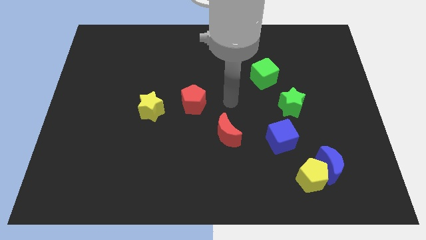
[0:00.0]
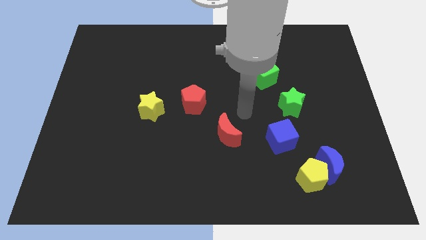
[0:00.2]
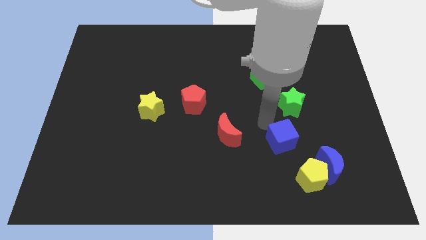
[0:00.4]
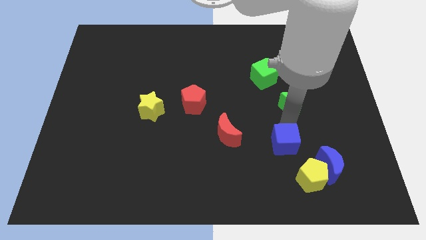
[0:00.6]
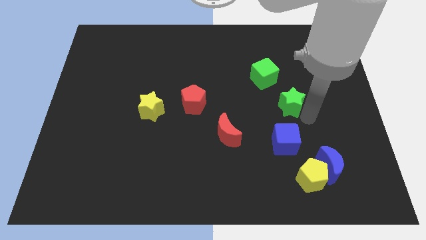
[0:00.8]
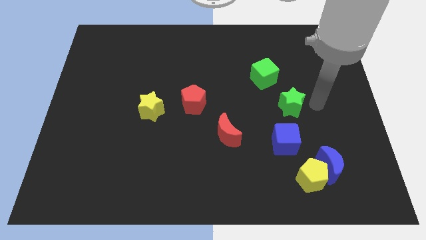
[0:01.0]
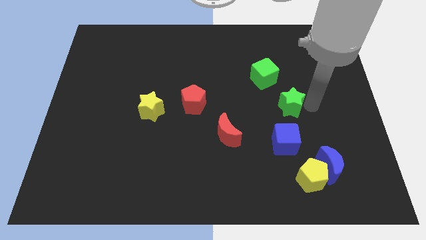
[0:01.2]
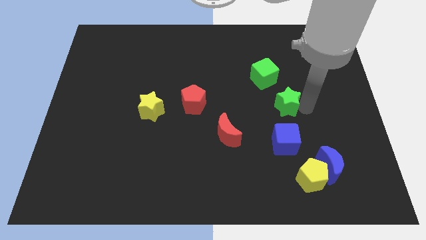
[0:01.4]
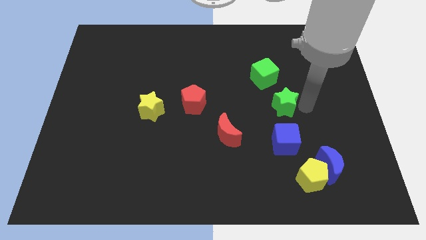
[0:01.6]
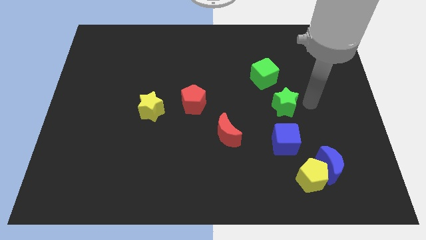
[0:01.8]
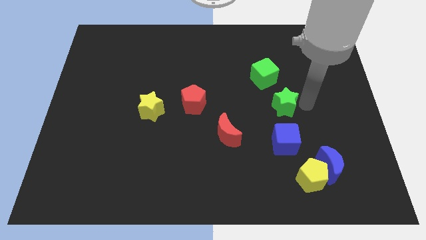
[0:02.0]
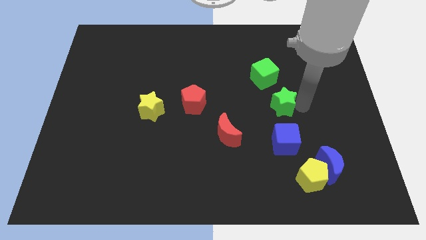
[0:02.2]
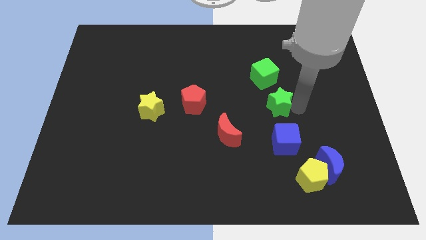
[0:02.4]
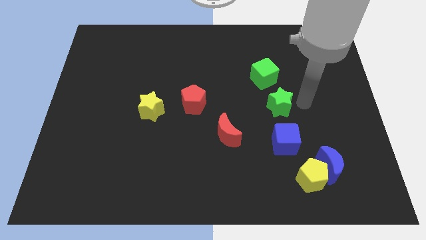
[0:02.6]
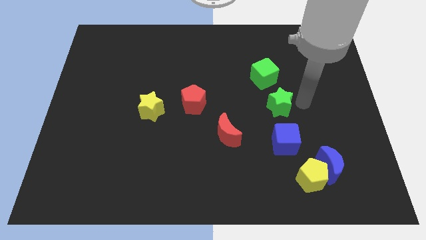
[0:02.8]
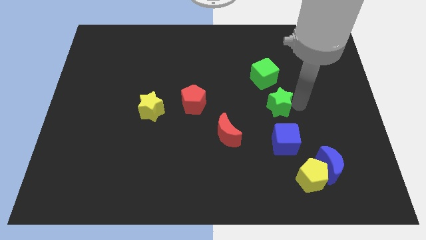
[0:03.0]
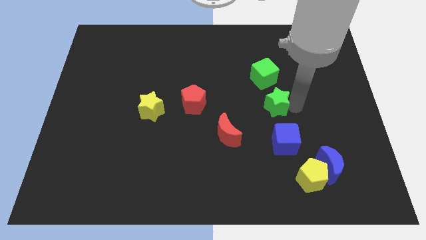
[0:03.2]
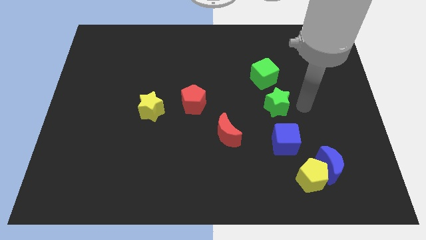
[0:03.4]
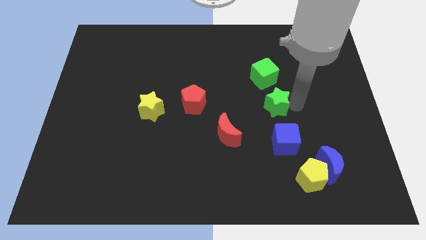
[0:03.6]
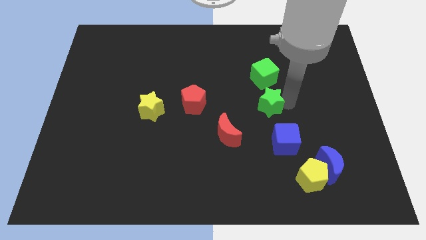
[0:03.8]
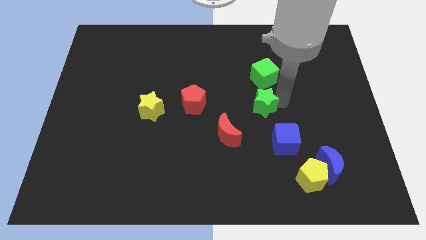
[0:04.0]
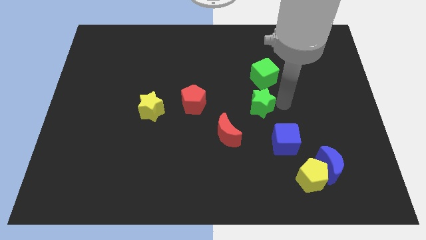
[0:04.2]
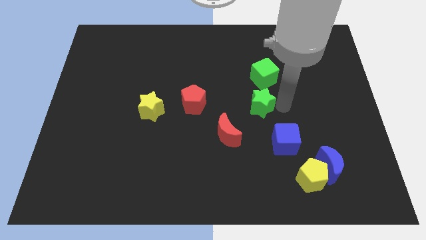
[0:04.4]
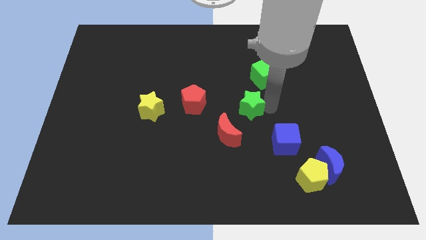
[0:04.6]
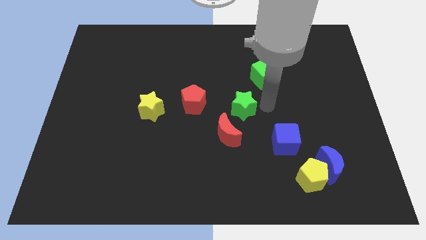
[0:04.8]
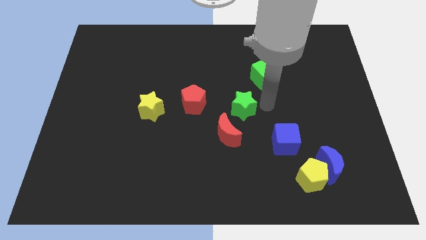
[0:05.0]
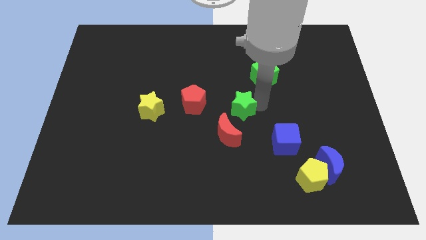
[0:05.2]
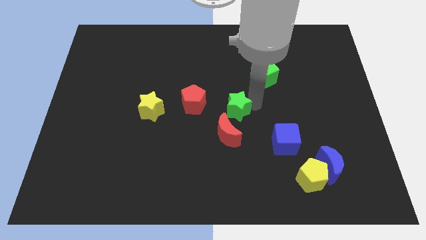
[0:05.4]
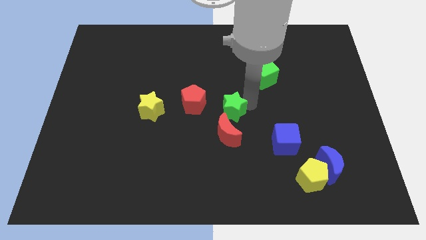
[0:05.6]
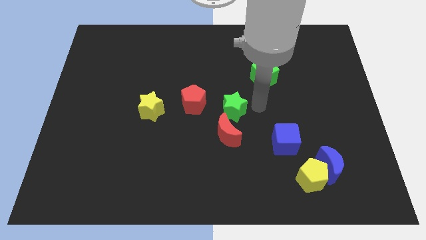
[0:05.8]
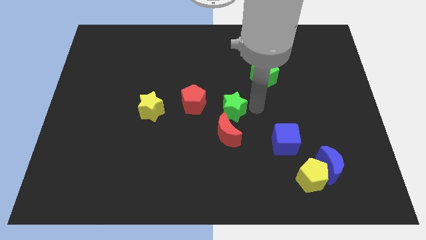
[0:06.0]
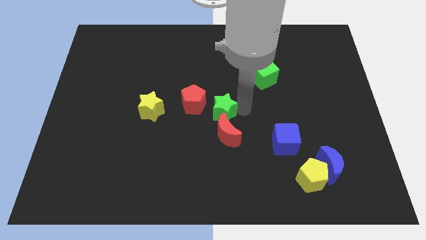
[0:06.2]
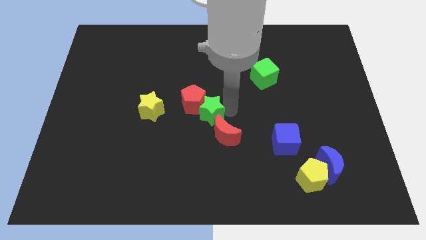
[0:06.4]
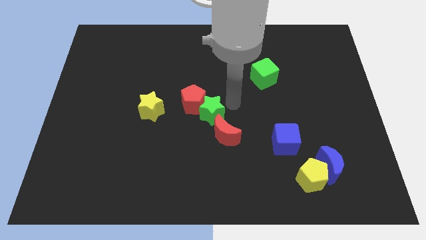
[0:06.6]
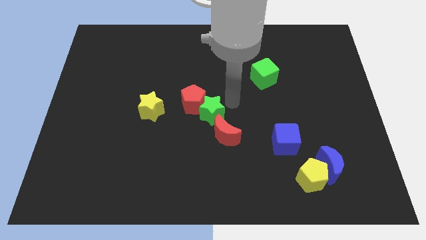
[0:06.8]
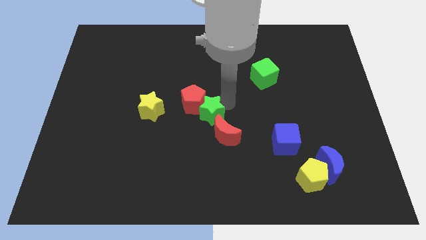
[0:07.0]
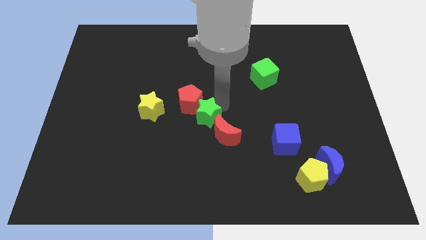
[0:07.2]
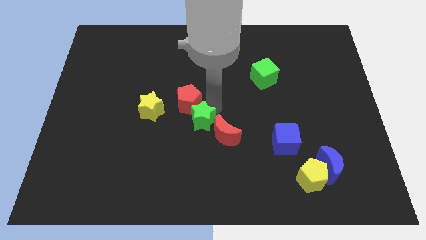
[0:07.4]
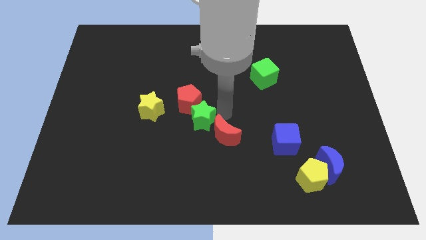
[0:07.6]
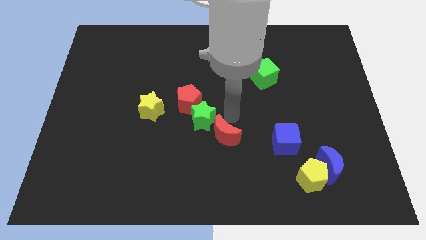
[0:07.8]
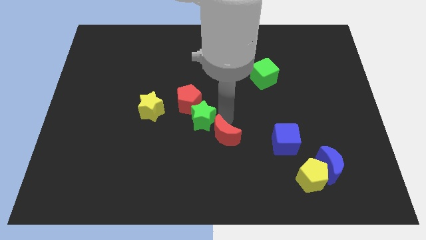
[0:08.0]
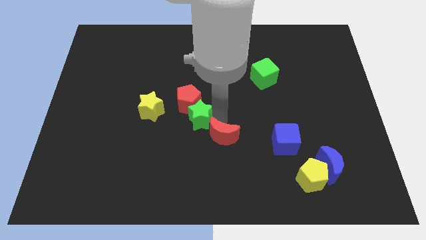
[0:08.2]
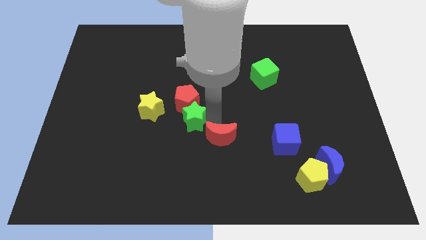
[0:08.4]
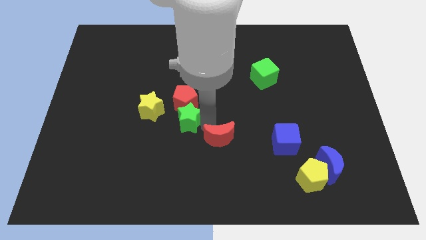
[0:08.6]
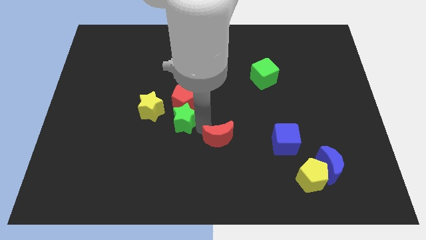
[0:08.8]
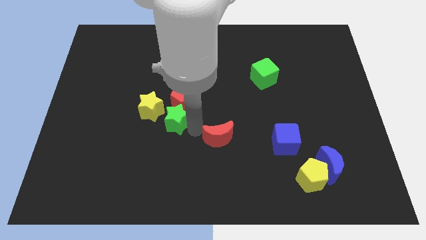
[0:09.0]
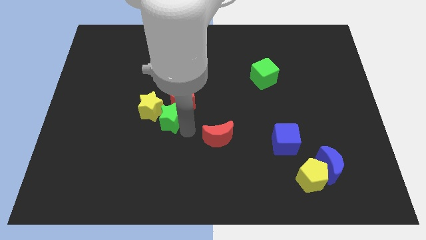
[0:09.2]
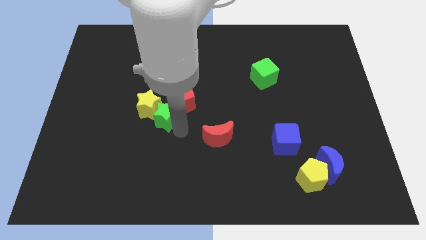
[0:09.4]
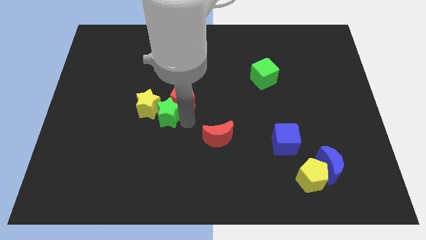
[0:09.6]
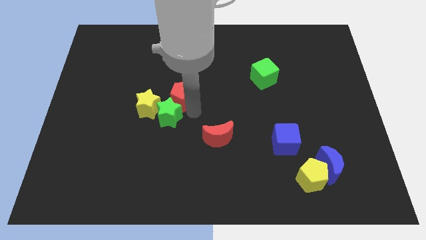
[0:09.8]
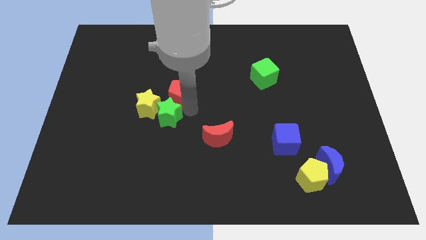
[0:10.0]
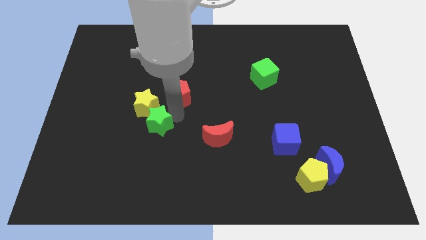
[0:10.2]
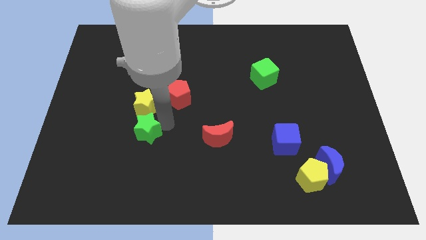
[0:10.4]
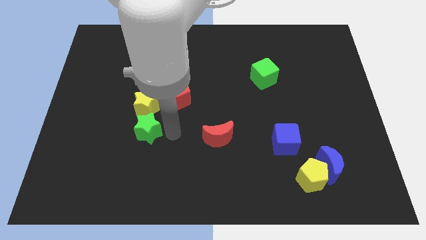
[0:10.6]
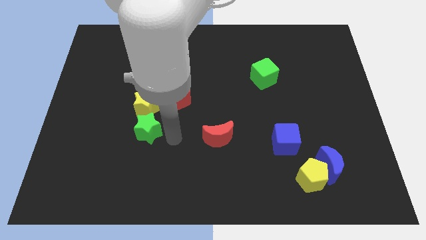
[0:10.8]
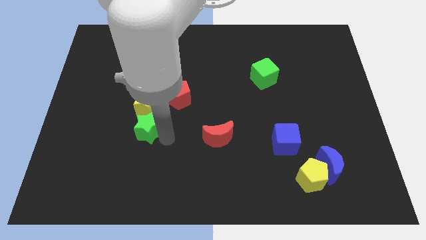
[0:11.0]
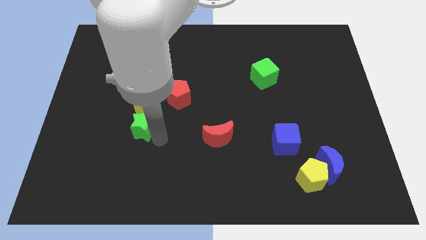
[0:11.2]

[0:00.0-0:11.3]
move the green star to the bottom left side of the yellow star

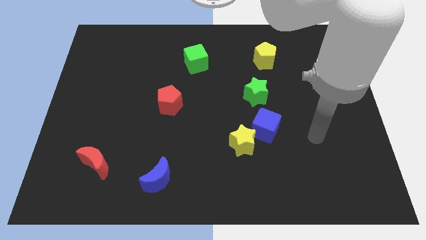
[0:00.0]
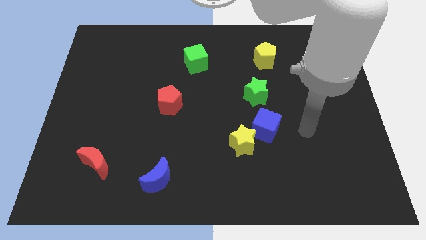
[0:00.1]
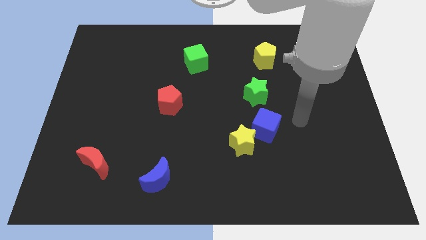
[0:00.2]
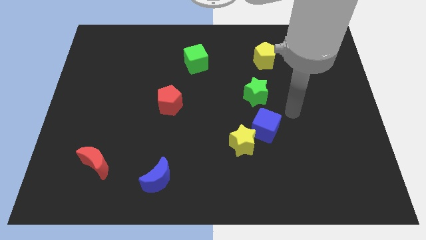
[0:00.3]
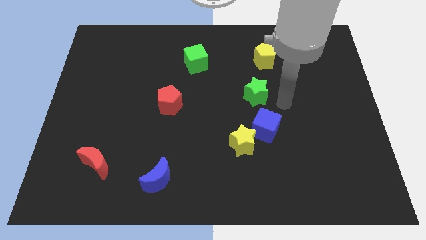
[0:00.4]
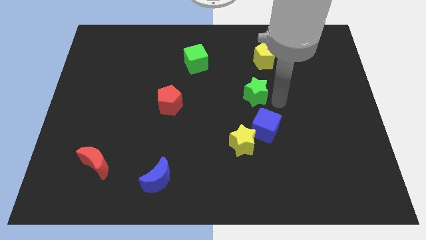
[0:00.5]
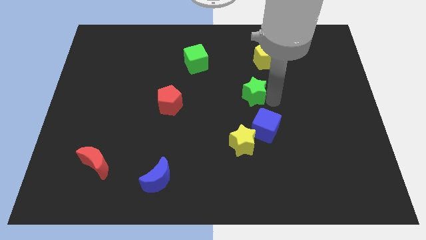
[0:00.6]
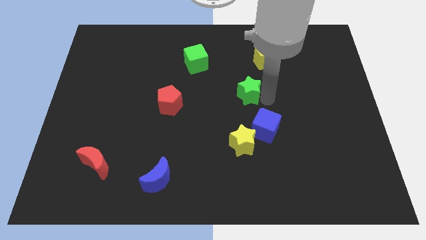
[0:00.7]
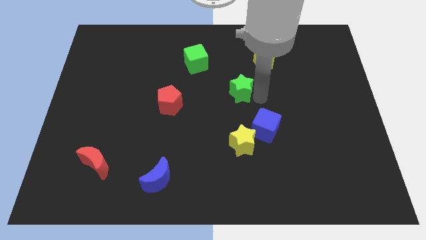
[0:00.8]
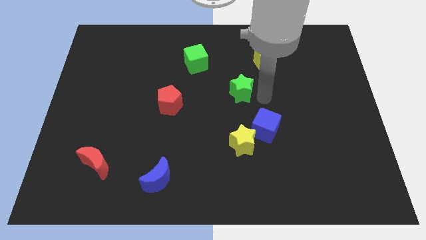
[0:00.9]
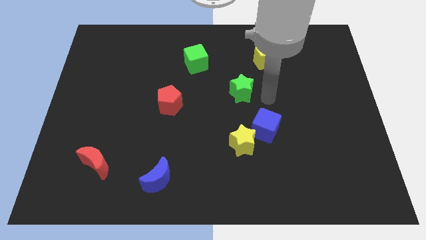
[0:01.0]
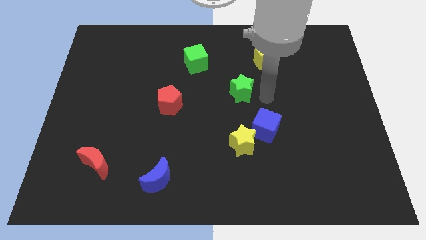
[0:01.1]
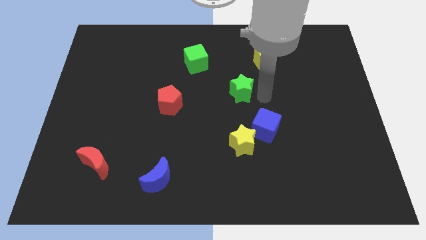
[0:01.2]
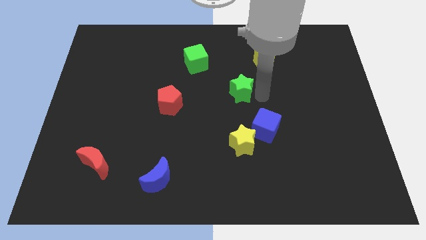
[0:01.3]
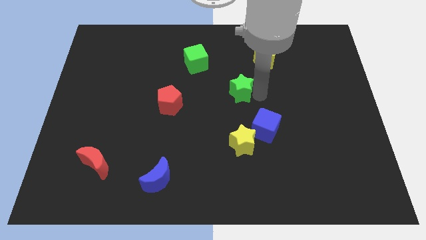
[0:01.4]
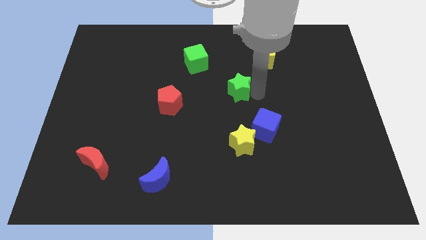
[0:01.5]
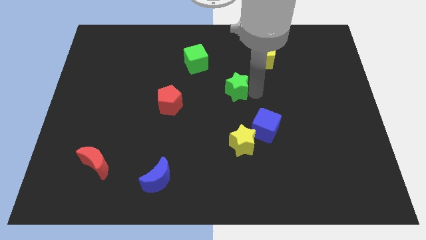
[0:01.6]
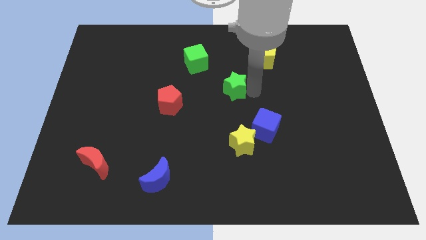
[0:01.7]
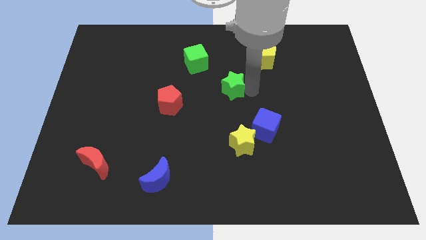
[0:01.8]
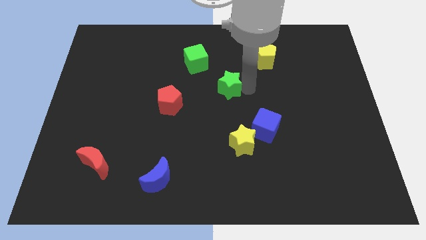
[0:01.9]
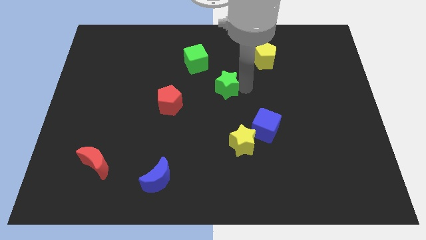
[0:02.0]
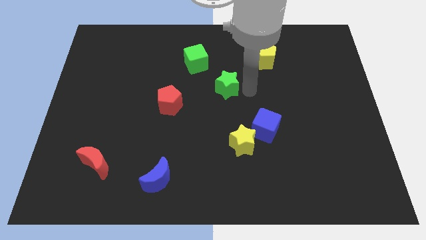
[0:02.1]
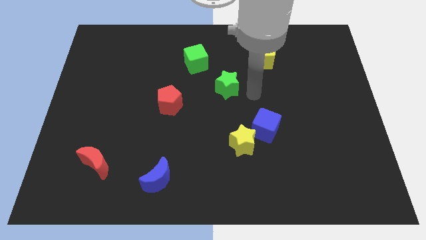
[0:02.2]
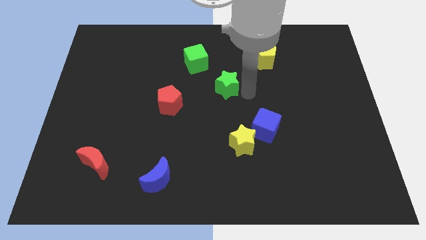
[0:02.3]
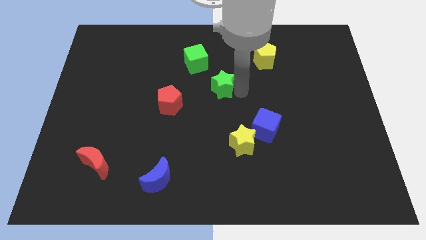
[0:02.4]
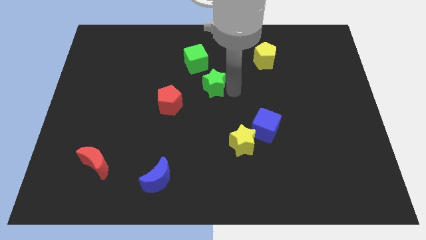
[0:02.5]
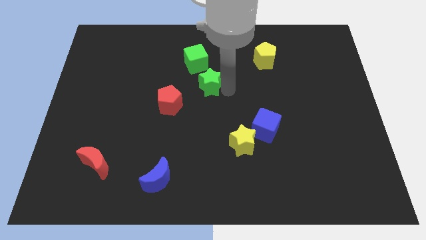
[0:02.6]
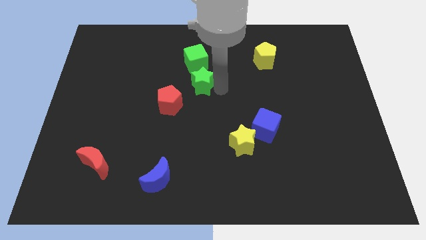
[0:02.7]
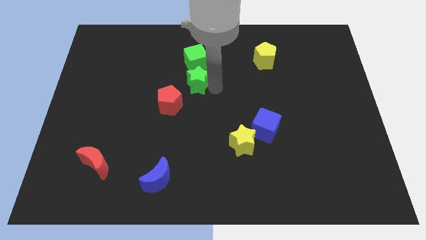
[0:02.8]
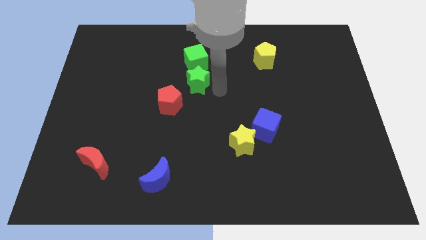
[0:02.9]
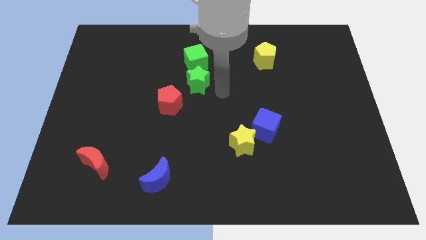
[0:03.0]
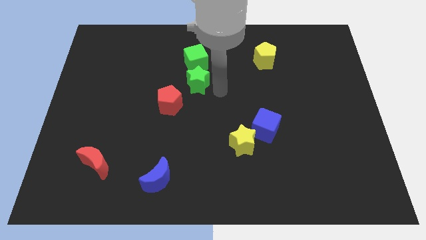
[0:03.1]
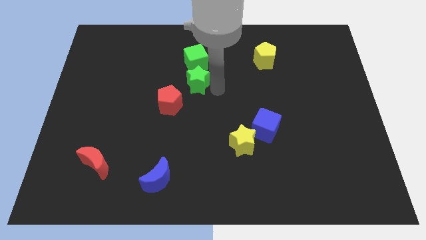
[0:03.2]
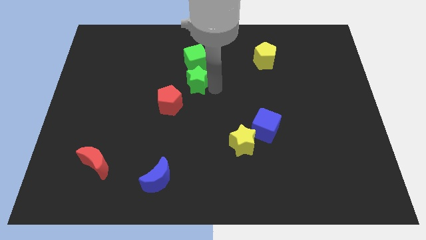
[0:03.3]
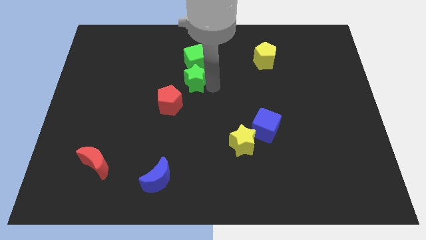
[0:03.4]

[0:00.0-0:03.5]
put the green star to the bottom left side of the green cube
